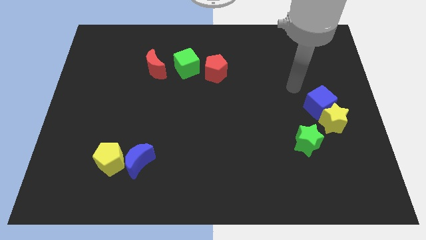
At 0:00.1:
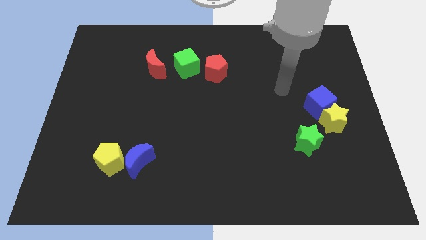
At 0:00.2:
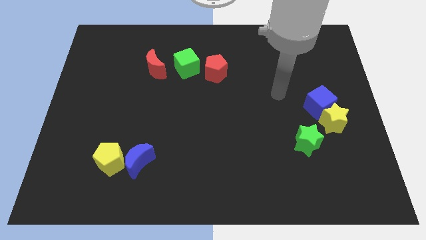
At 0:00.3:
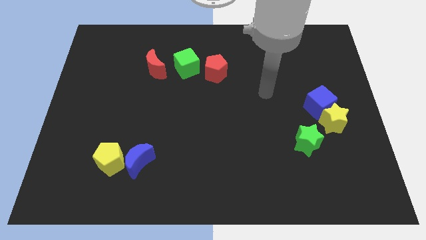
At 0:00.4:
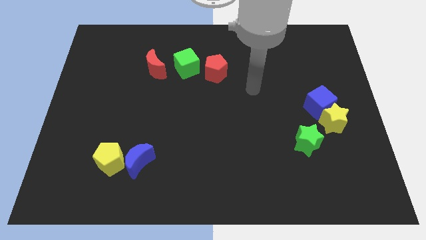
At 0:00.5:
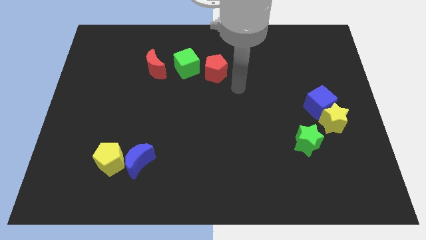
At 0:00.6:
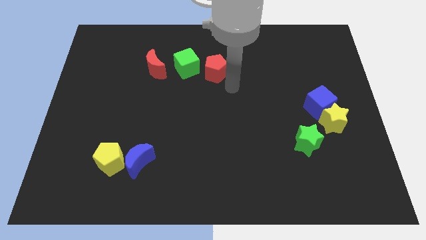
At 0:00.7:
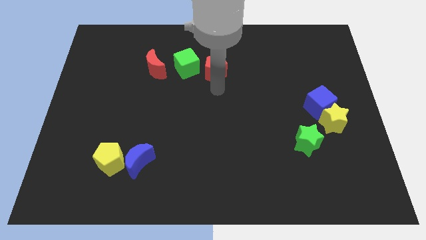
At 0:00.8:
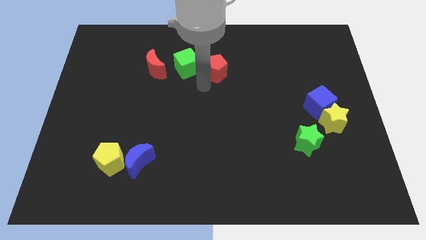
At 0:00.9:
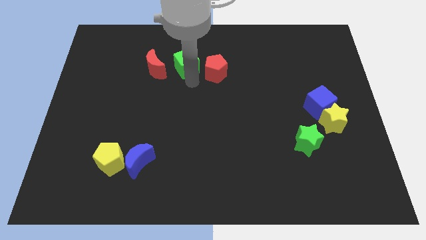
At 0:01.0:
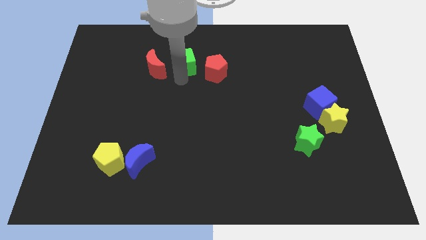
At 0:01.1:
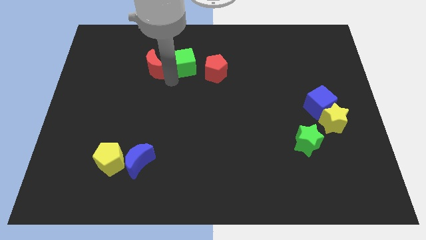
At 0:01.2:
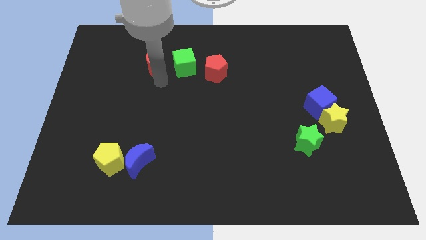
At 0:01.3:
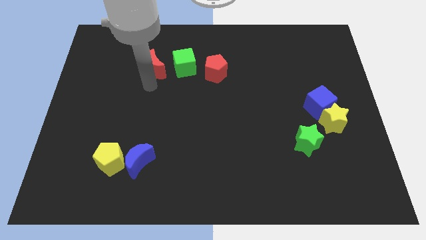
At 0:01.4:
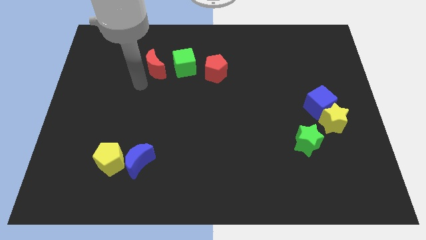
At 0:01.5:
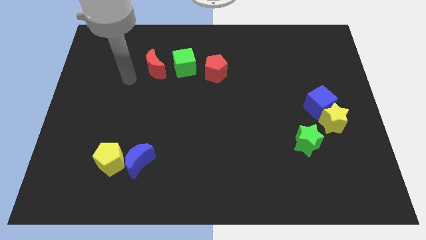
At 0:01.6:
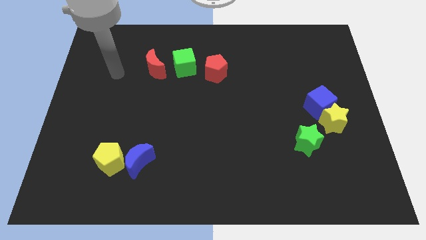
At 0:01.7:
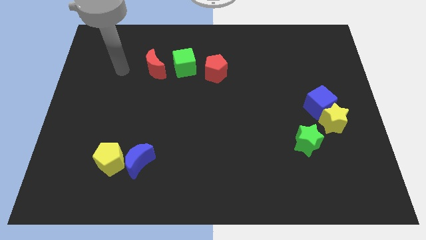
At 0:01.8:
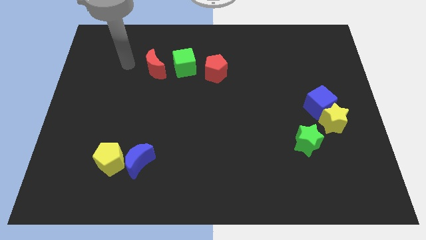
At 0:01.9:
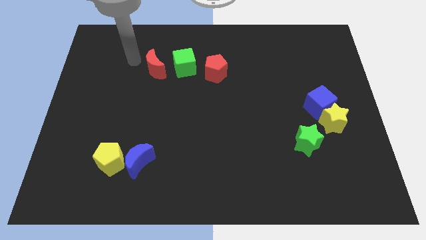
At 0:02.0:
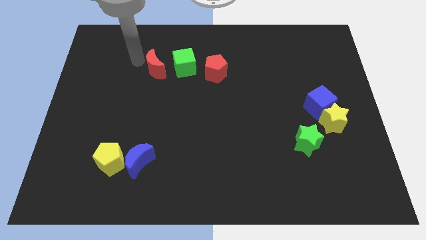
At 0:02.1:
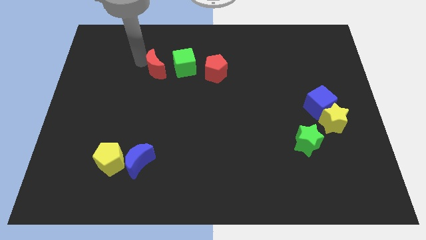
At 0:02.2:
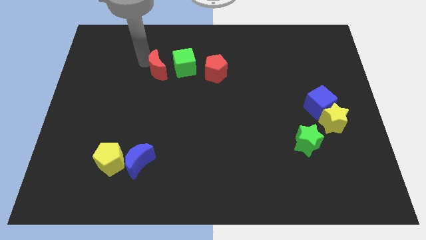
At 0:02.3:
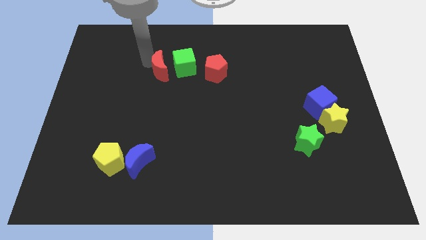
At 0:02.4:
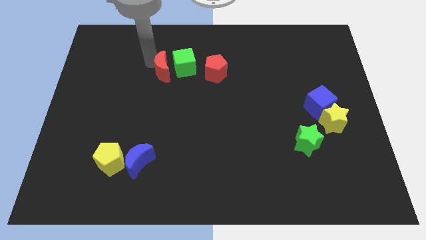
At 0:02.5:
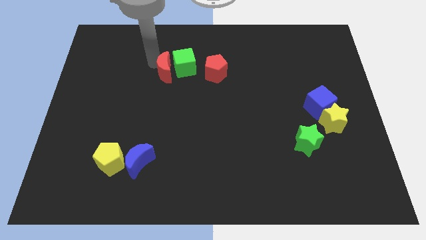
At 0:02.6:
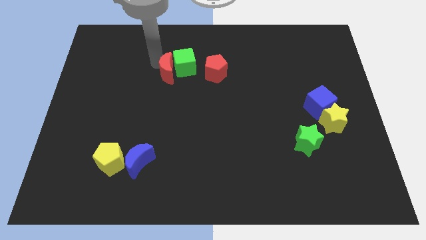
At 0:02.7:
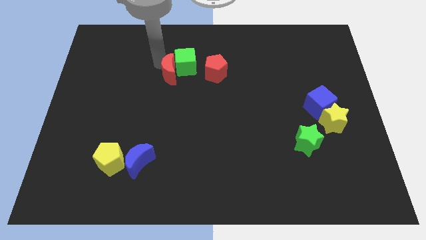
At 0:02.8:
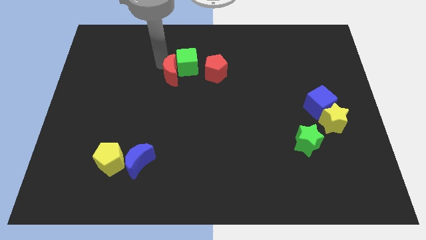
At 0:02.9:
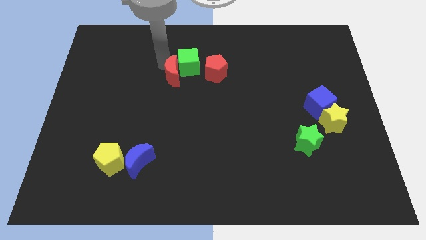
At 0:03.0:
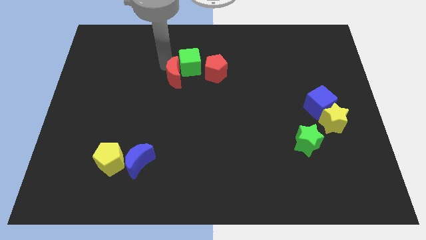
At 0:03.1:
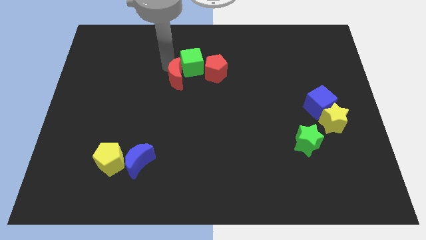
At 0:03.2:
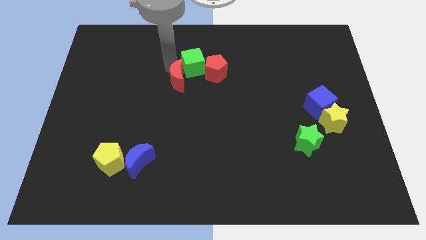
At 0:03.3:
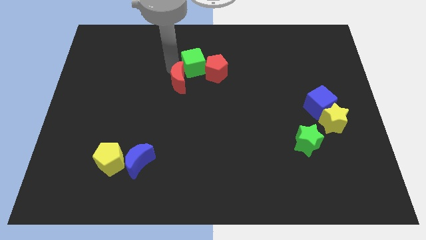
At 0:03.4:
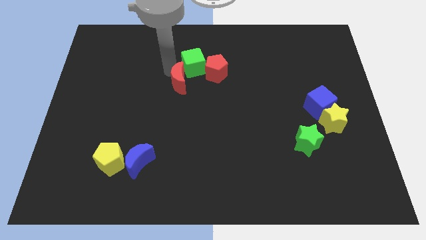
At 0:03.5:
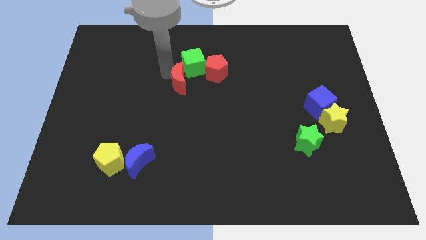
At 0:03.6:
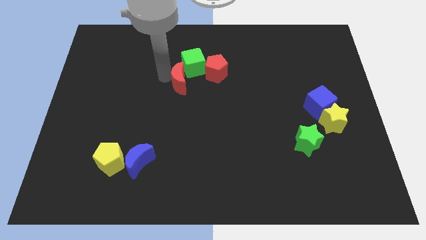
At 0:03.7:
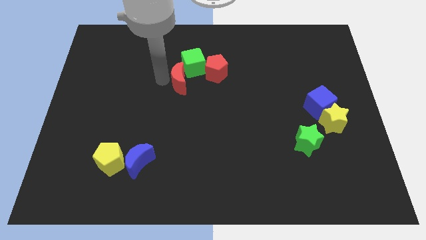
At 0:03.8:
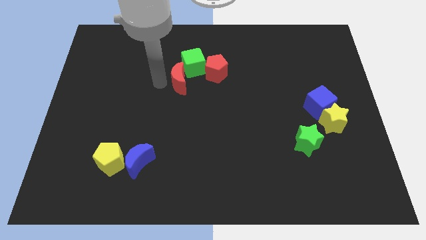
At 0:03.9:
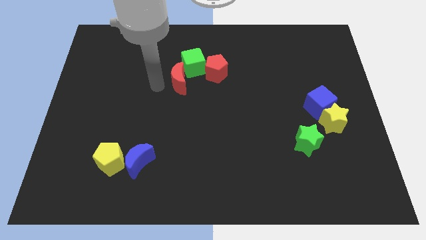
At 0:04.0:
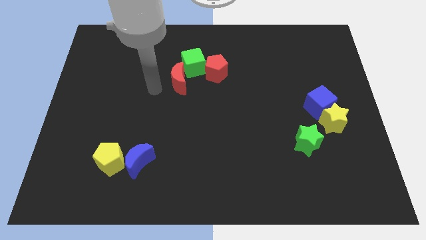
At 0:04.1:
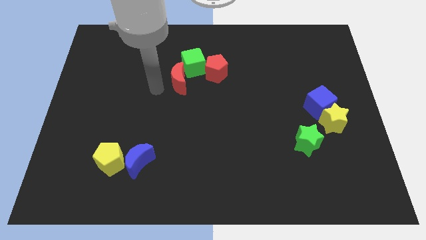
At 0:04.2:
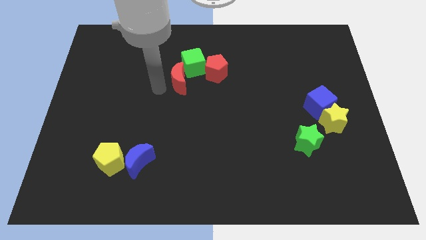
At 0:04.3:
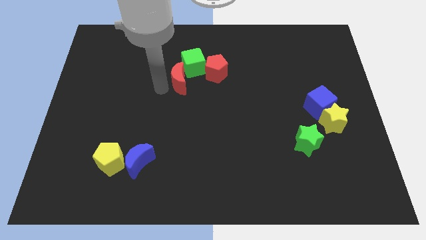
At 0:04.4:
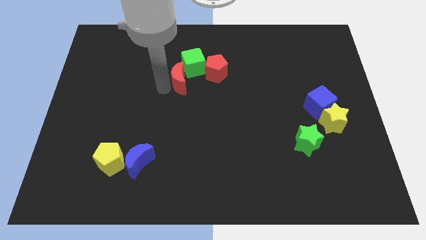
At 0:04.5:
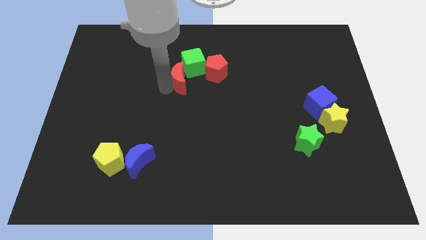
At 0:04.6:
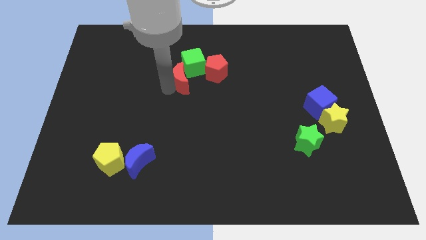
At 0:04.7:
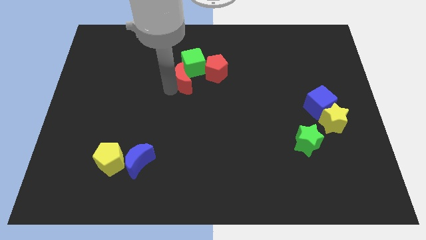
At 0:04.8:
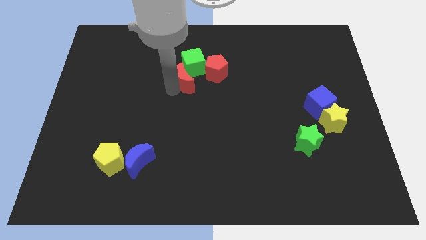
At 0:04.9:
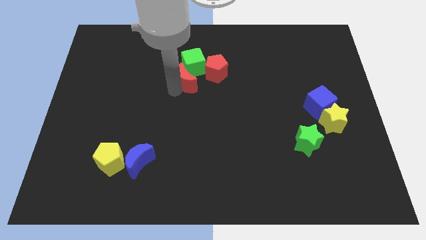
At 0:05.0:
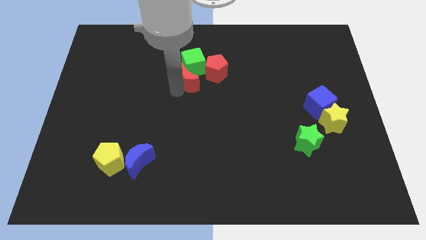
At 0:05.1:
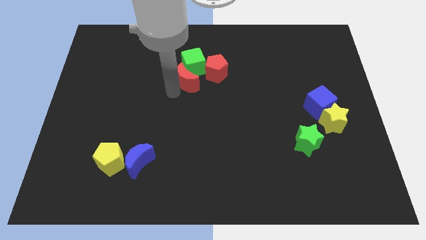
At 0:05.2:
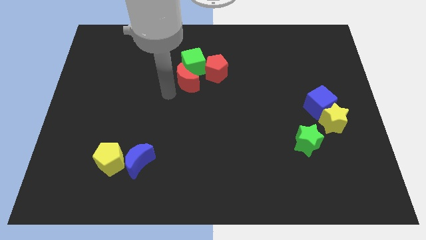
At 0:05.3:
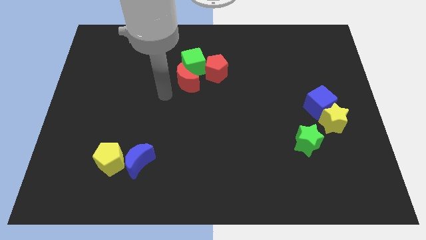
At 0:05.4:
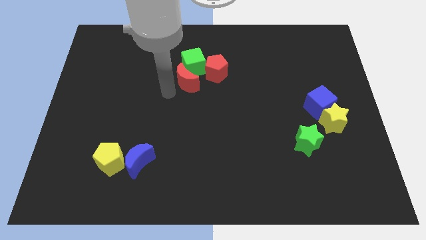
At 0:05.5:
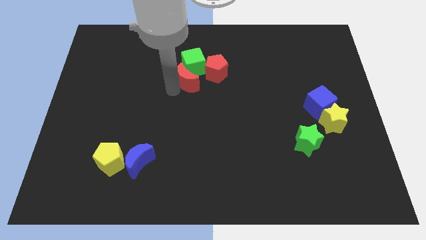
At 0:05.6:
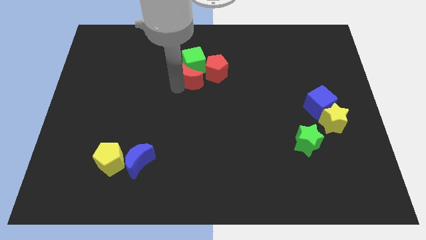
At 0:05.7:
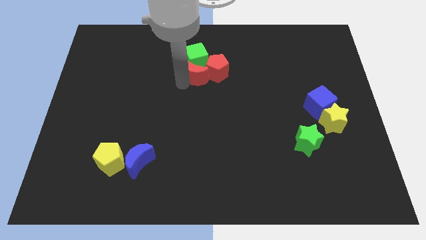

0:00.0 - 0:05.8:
slide the red moon to the red pentagon

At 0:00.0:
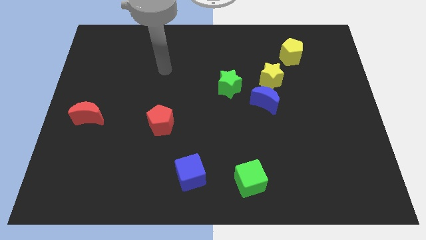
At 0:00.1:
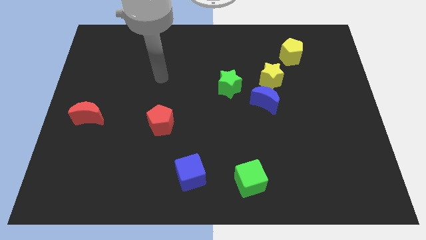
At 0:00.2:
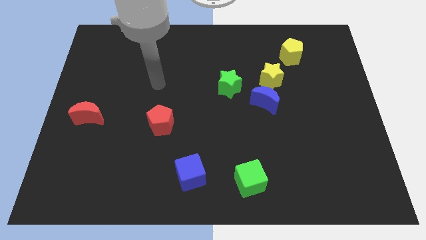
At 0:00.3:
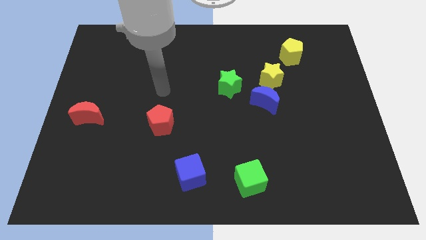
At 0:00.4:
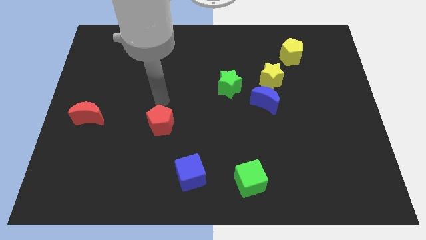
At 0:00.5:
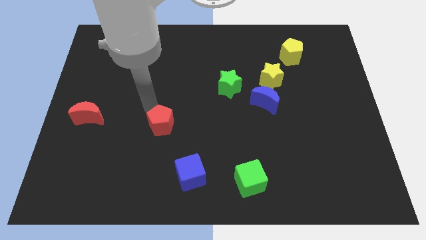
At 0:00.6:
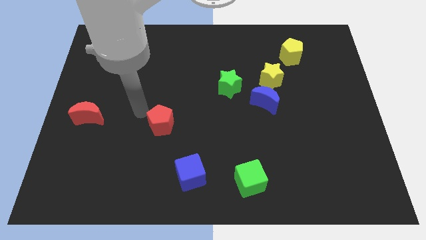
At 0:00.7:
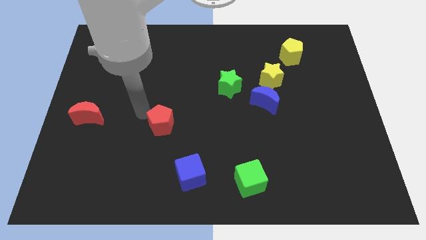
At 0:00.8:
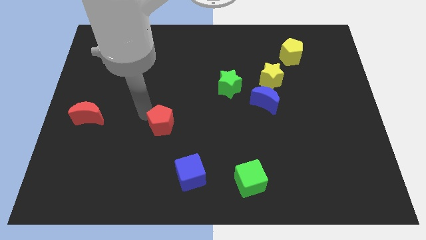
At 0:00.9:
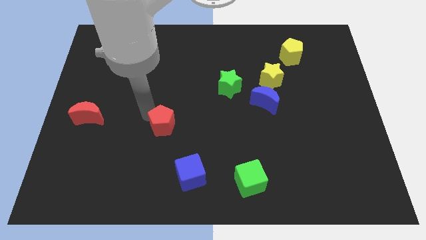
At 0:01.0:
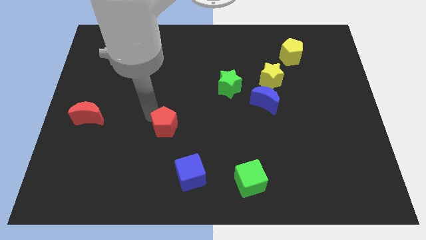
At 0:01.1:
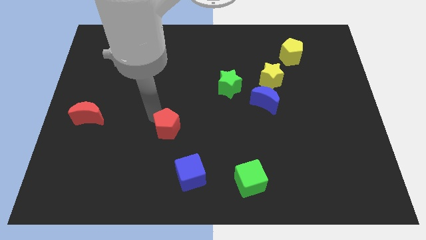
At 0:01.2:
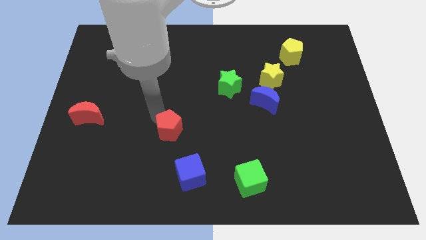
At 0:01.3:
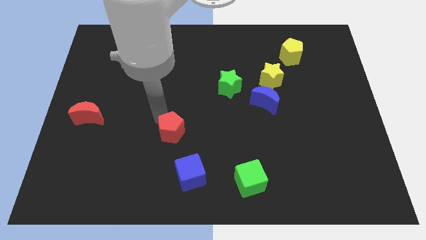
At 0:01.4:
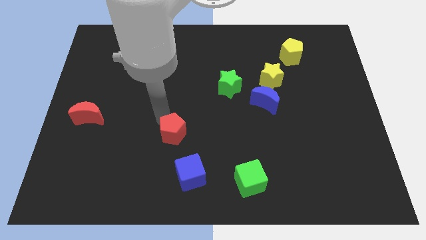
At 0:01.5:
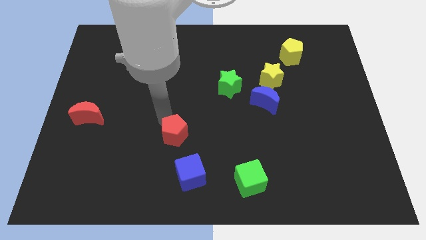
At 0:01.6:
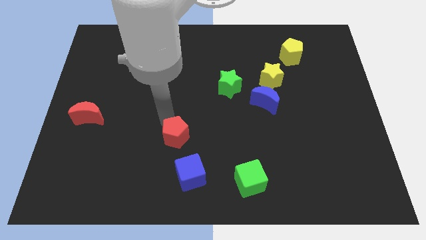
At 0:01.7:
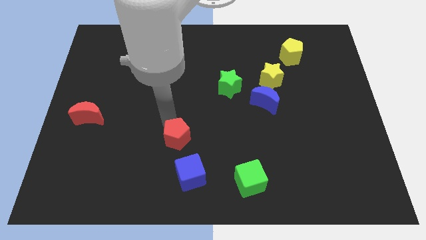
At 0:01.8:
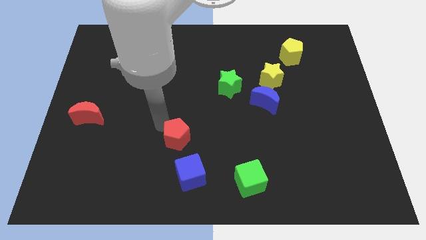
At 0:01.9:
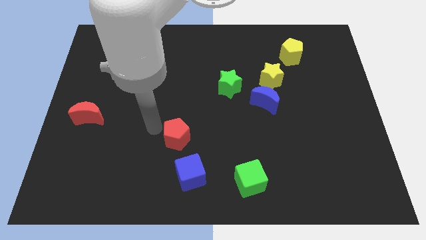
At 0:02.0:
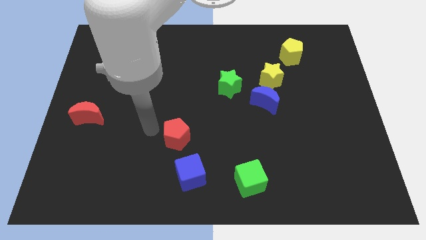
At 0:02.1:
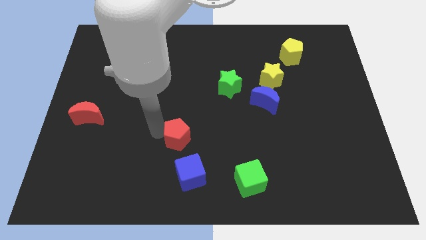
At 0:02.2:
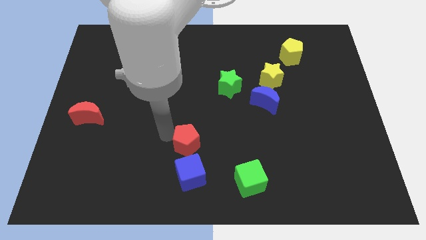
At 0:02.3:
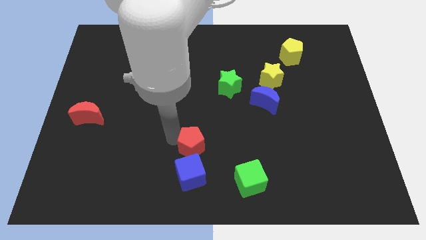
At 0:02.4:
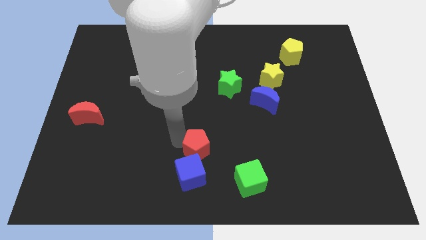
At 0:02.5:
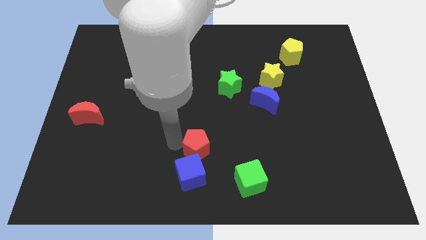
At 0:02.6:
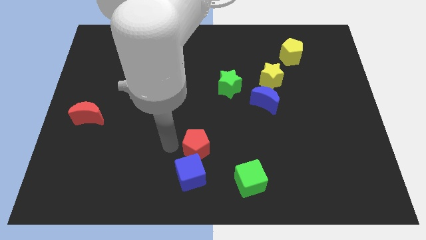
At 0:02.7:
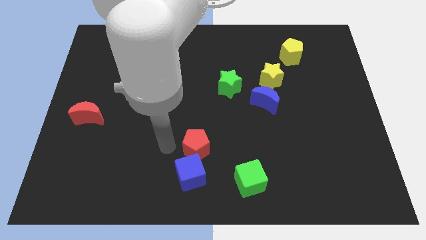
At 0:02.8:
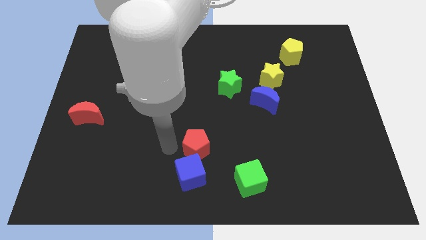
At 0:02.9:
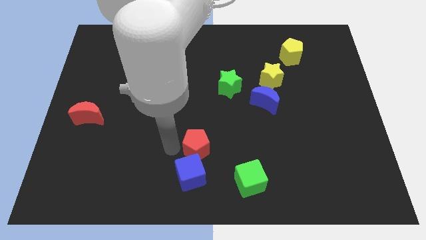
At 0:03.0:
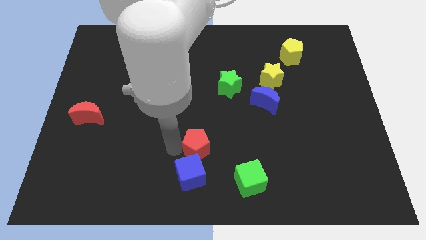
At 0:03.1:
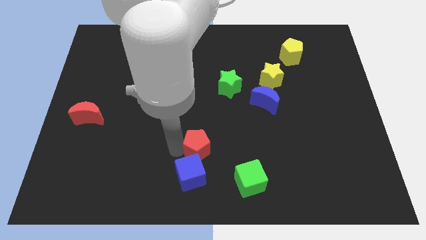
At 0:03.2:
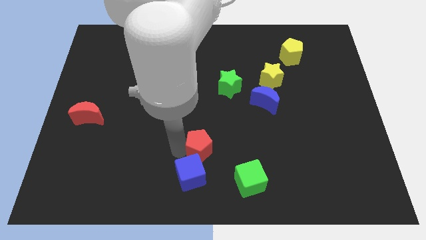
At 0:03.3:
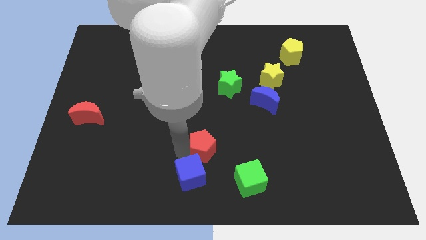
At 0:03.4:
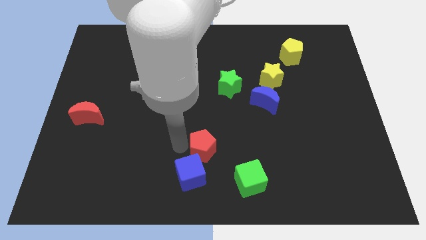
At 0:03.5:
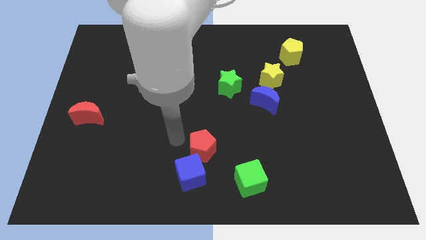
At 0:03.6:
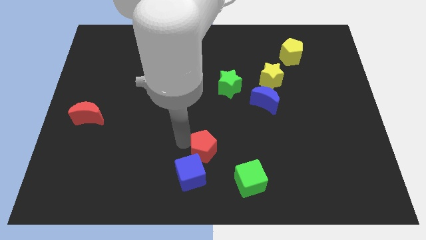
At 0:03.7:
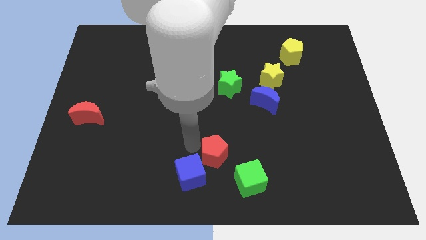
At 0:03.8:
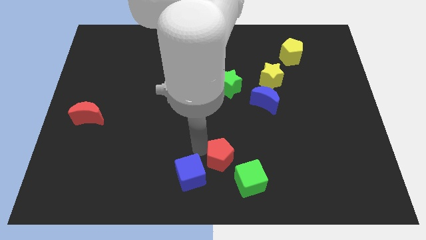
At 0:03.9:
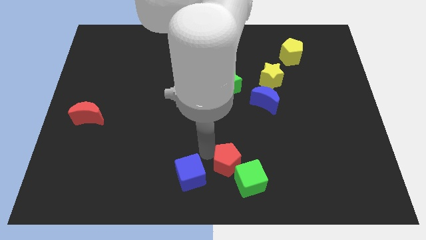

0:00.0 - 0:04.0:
move the red pentagon close to the green cube
